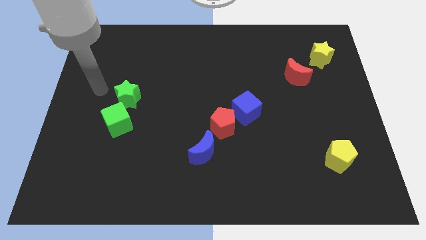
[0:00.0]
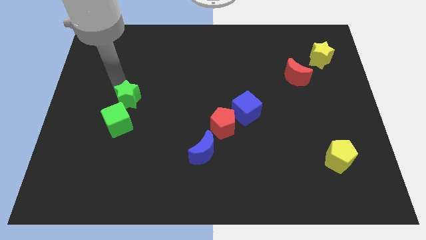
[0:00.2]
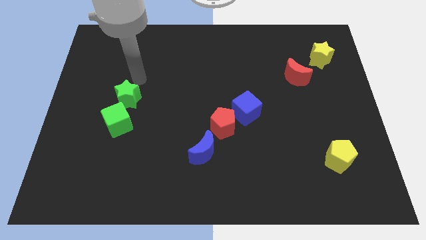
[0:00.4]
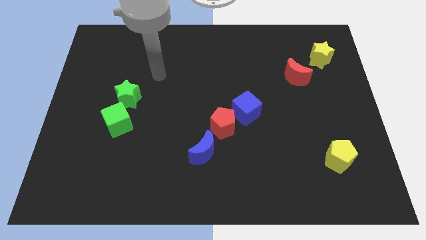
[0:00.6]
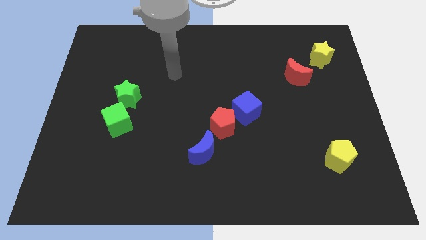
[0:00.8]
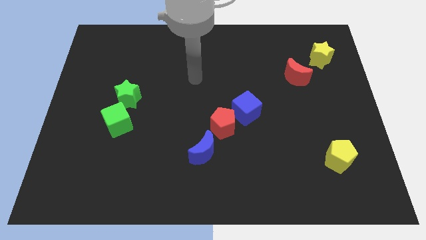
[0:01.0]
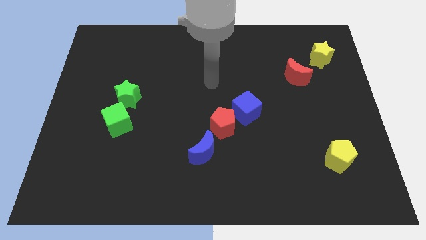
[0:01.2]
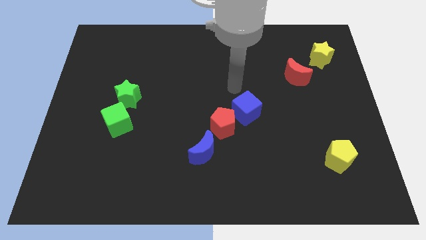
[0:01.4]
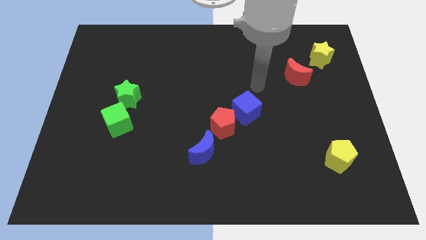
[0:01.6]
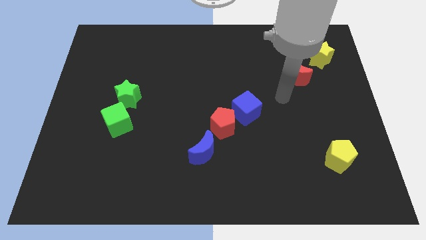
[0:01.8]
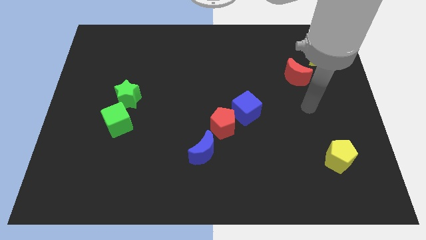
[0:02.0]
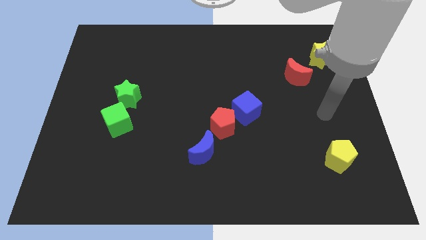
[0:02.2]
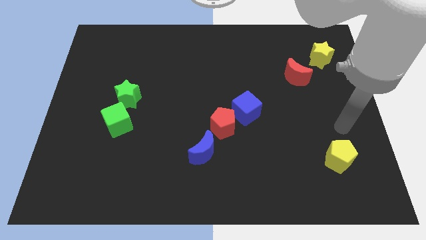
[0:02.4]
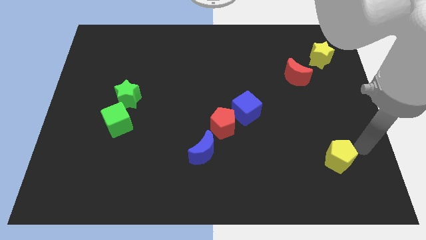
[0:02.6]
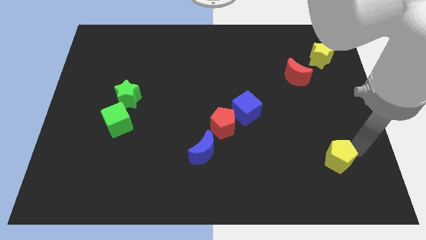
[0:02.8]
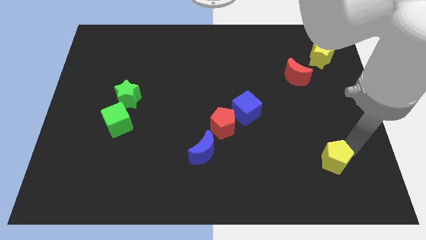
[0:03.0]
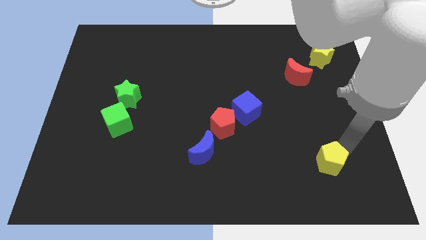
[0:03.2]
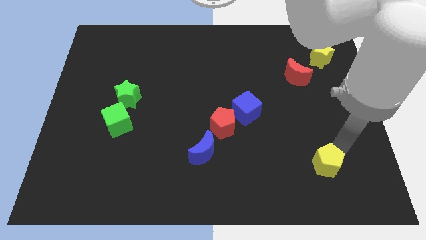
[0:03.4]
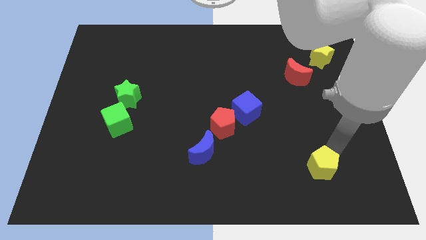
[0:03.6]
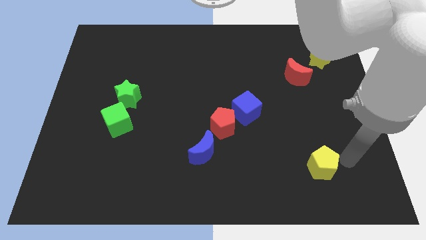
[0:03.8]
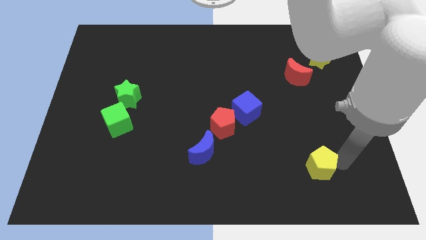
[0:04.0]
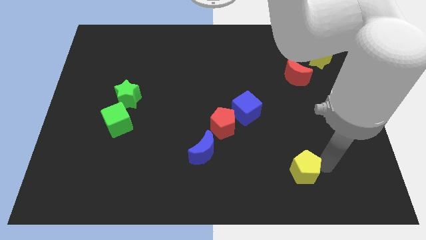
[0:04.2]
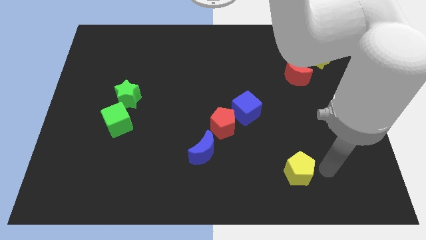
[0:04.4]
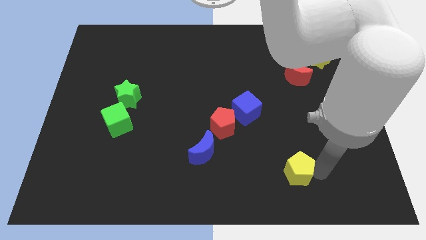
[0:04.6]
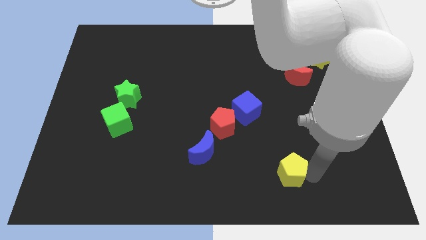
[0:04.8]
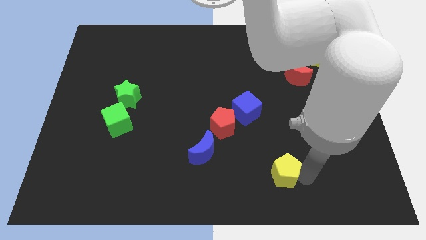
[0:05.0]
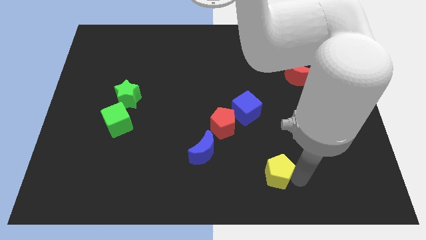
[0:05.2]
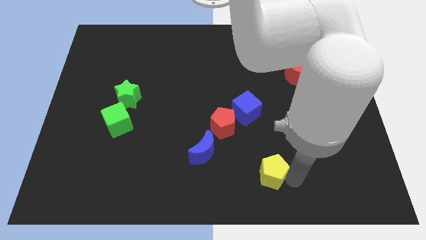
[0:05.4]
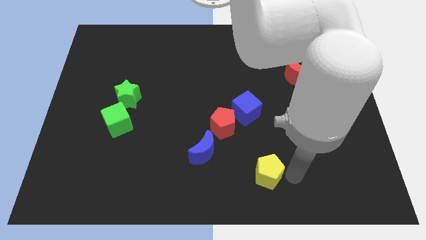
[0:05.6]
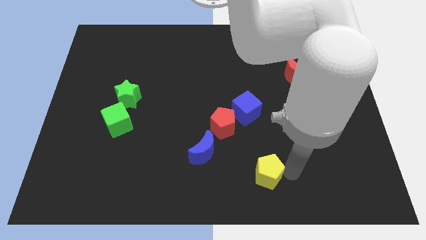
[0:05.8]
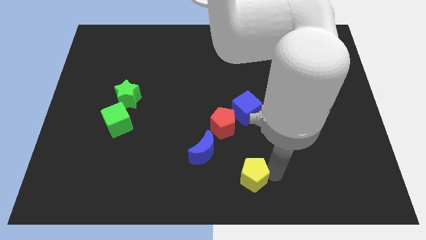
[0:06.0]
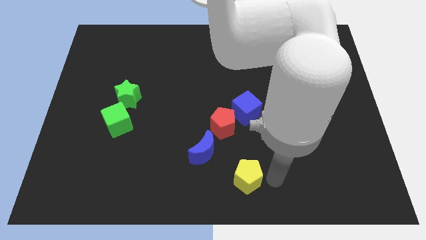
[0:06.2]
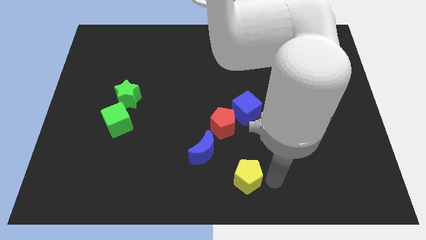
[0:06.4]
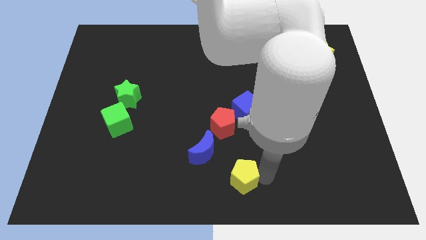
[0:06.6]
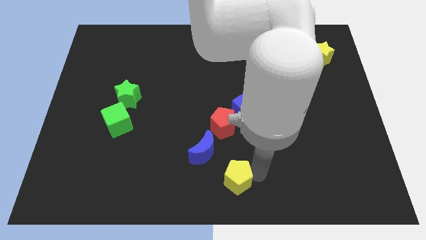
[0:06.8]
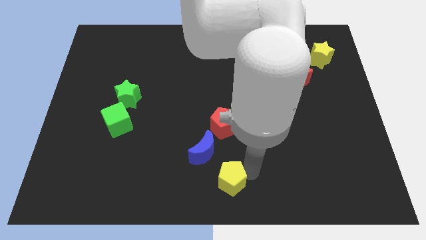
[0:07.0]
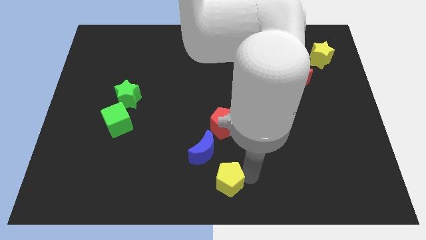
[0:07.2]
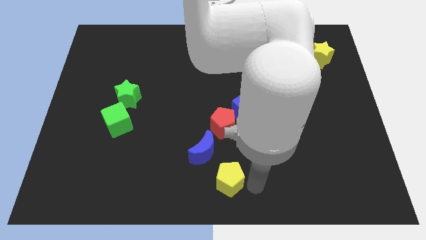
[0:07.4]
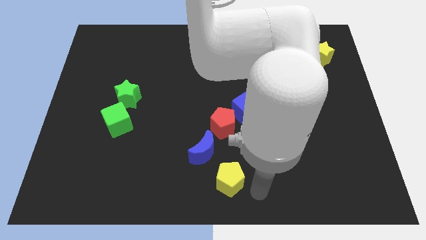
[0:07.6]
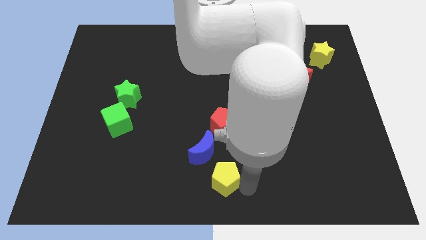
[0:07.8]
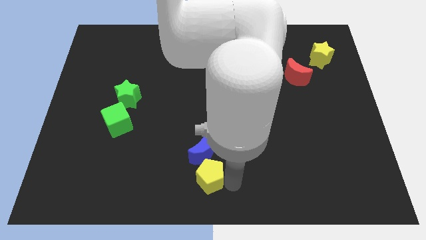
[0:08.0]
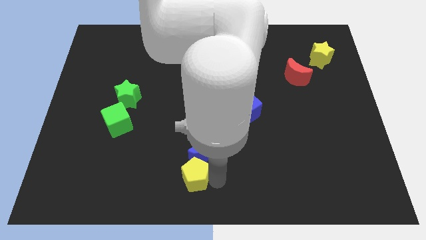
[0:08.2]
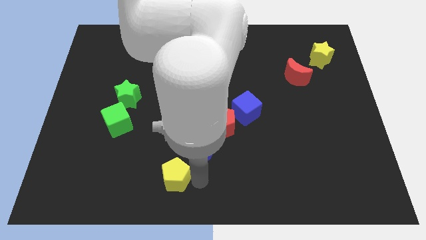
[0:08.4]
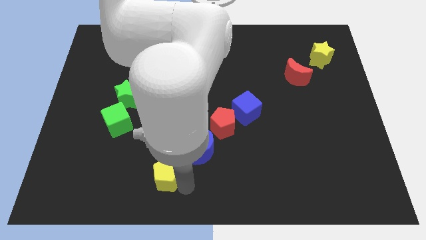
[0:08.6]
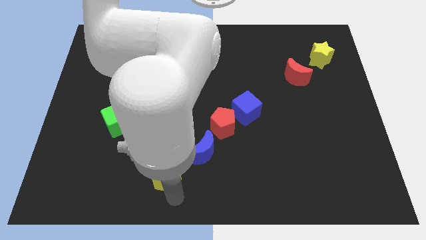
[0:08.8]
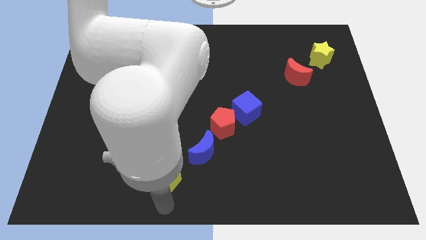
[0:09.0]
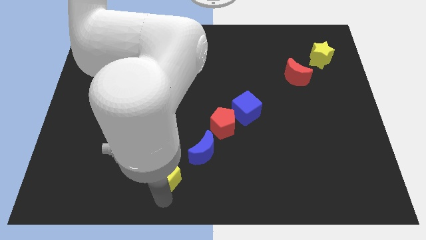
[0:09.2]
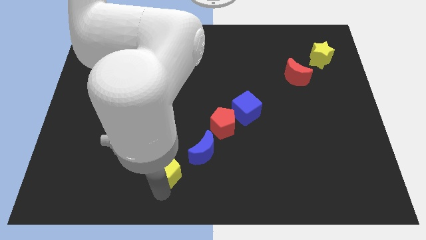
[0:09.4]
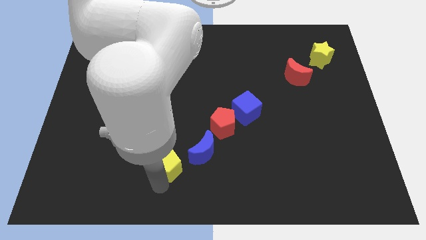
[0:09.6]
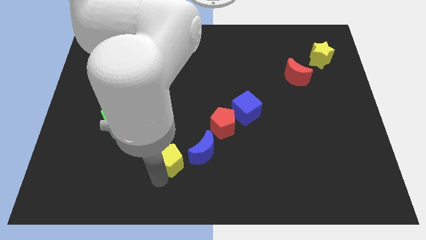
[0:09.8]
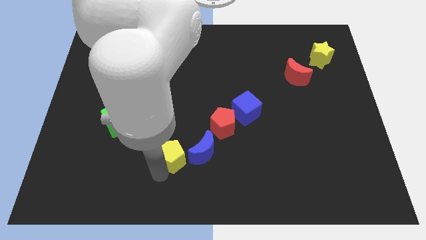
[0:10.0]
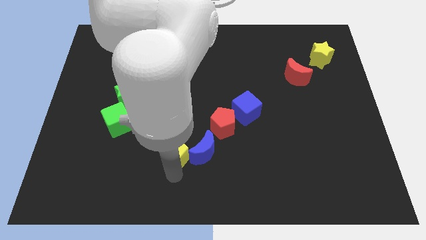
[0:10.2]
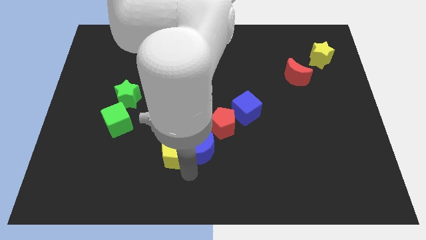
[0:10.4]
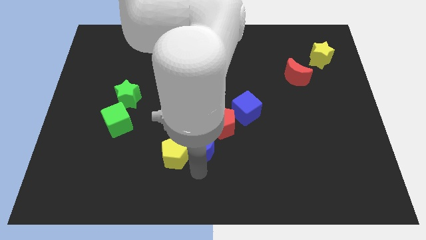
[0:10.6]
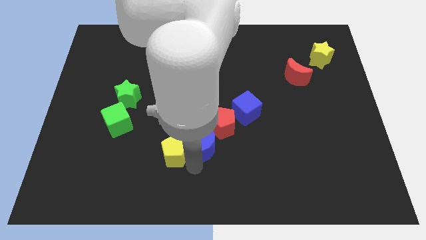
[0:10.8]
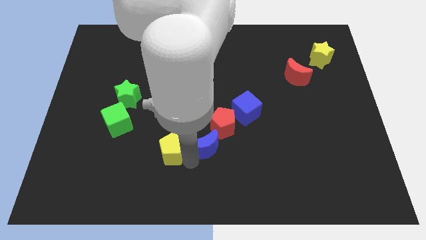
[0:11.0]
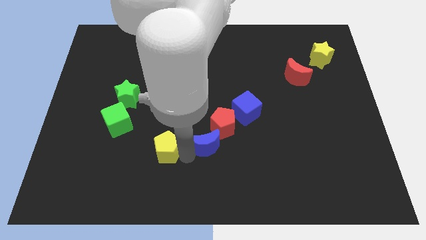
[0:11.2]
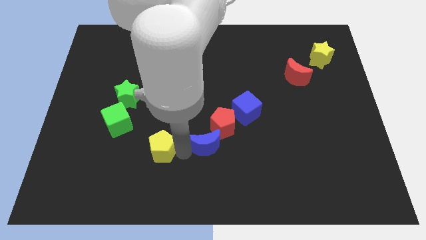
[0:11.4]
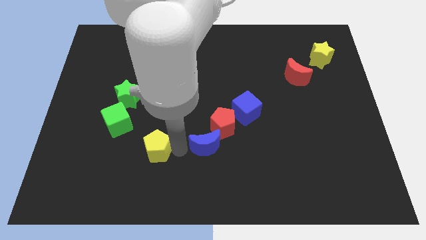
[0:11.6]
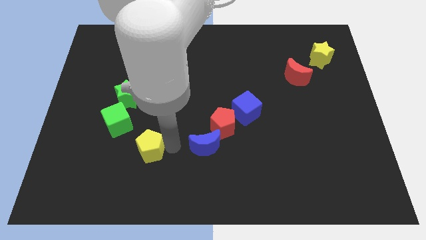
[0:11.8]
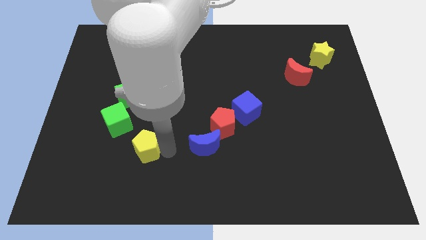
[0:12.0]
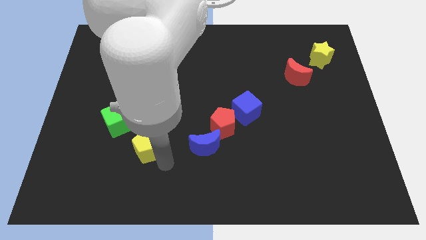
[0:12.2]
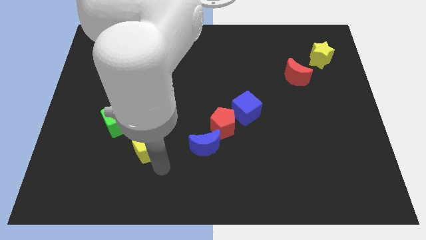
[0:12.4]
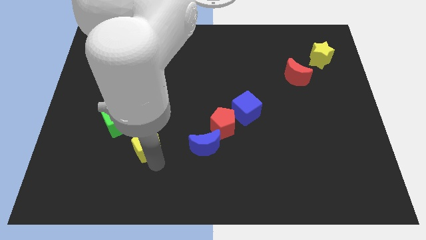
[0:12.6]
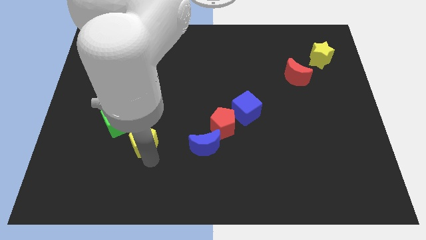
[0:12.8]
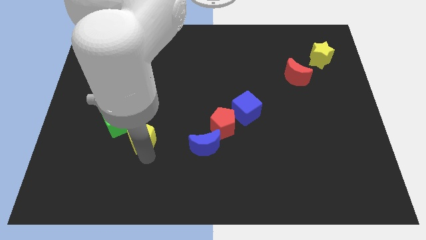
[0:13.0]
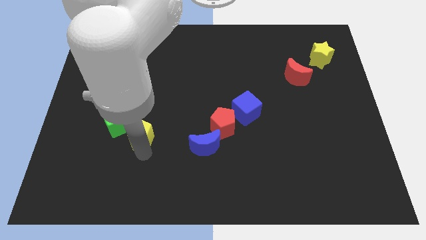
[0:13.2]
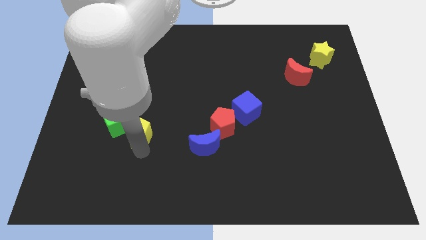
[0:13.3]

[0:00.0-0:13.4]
move the yellow pentagon close to the green cube

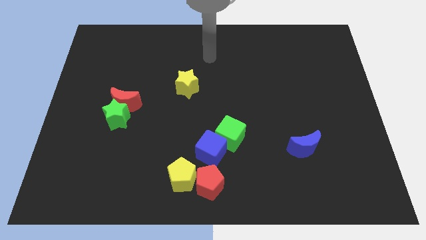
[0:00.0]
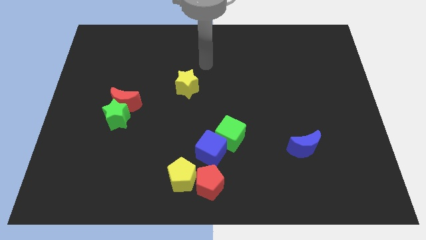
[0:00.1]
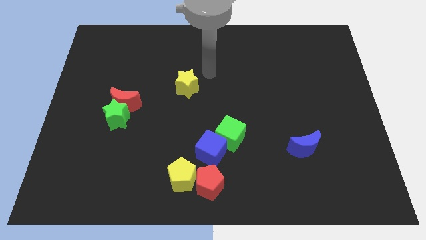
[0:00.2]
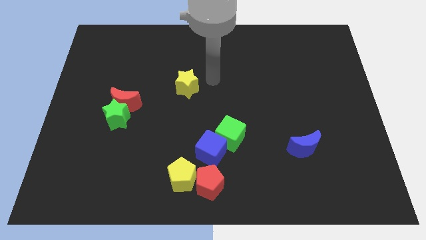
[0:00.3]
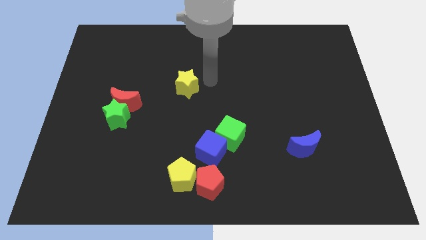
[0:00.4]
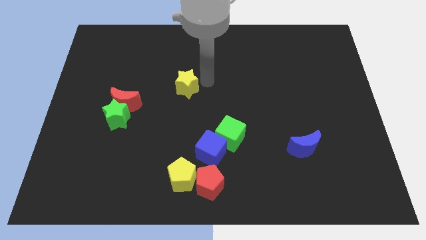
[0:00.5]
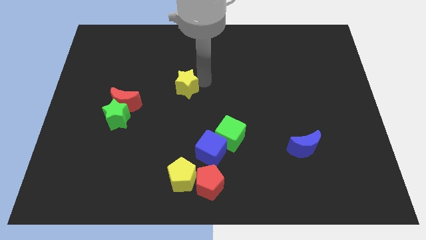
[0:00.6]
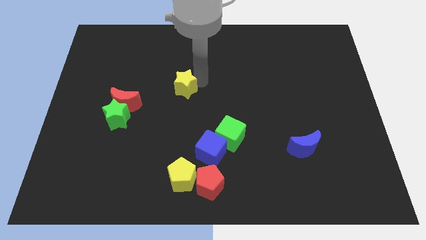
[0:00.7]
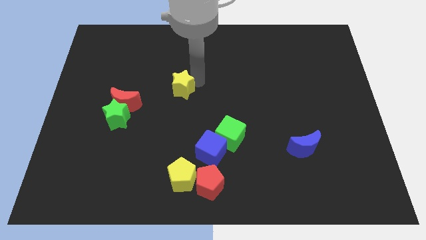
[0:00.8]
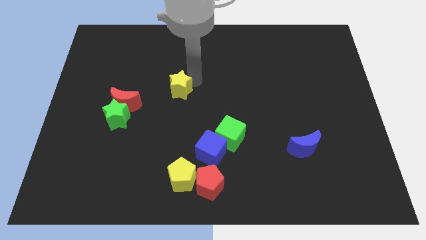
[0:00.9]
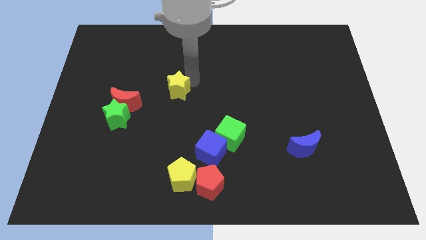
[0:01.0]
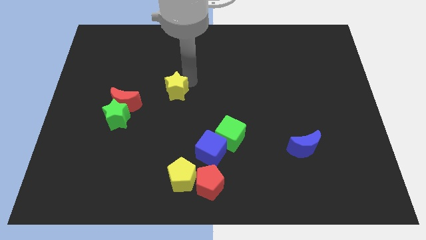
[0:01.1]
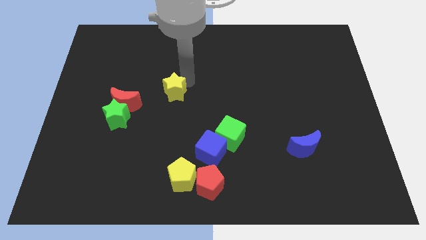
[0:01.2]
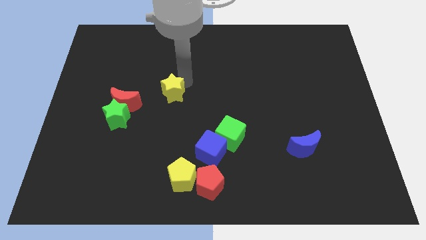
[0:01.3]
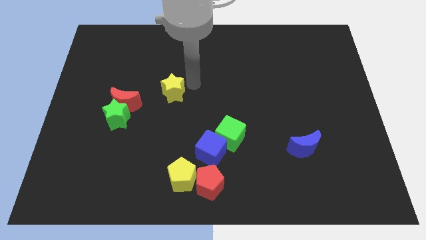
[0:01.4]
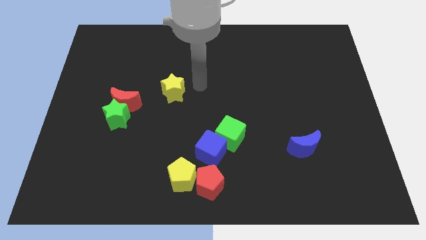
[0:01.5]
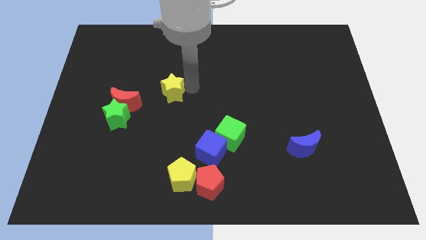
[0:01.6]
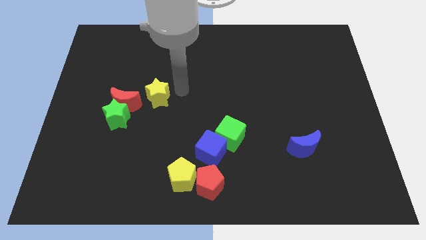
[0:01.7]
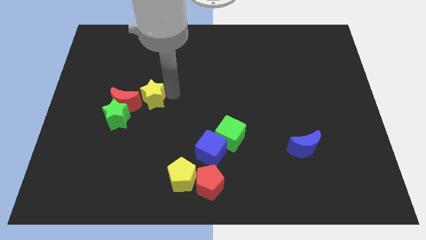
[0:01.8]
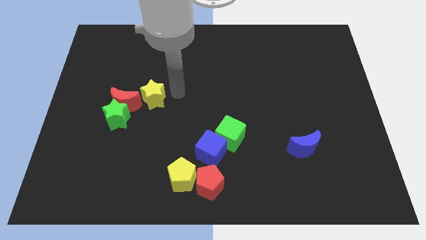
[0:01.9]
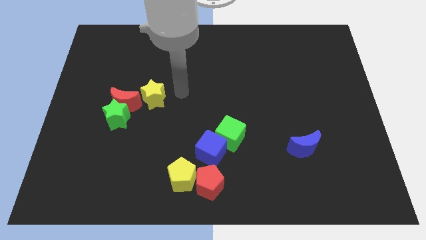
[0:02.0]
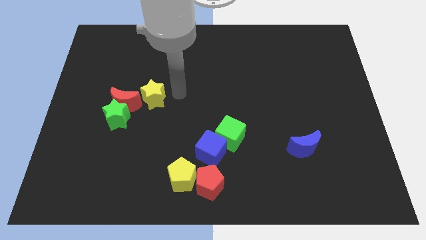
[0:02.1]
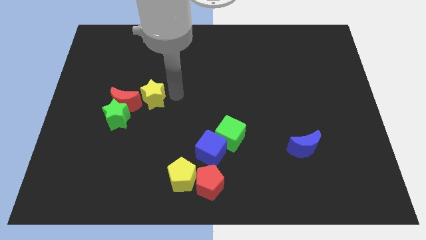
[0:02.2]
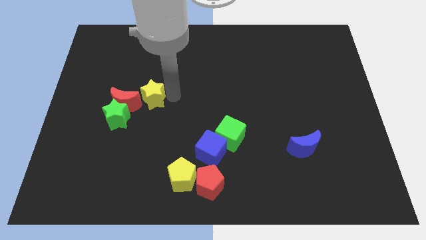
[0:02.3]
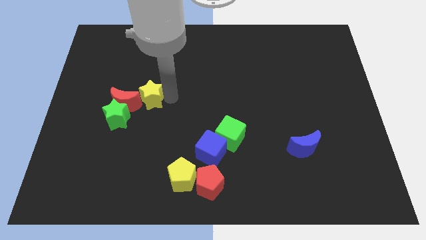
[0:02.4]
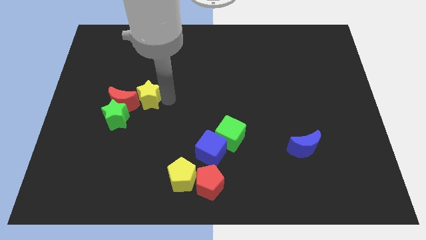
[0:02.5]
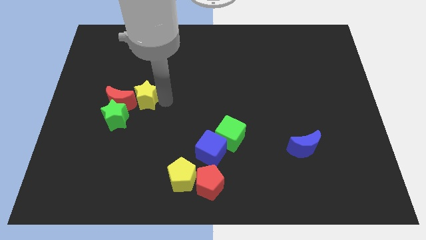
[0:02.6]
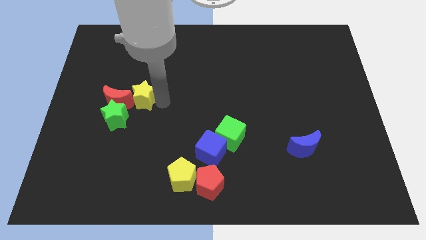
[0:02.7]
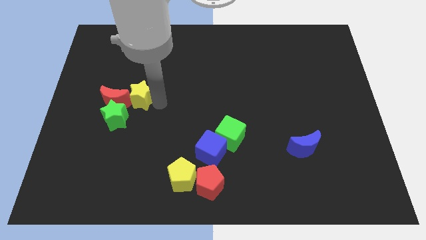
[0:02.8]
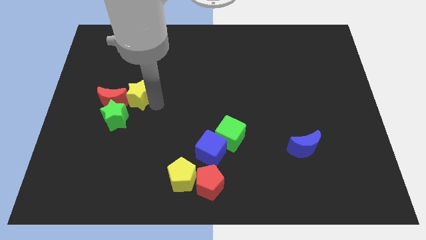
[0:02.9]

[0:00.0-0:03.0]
slide the yellow star close to the red moon
